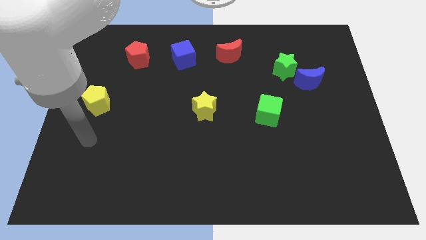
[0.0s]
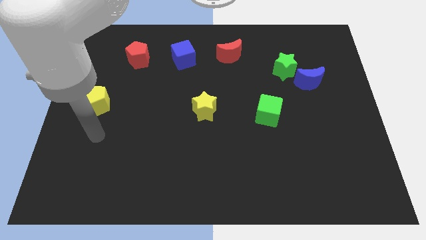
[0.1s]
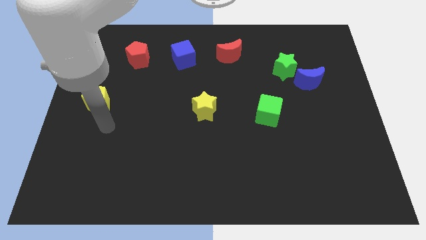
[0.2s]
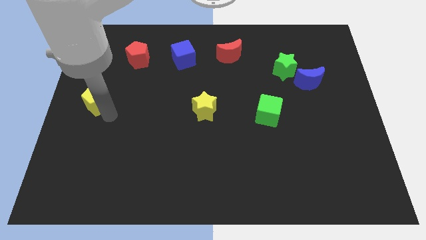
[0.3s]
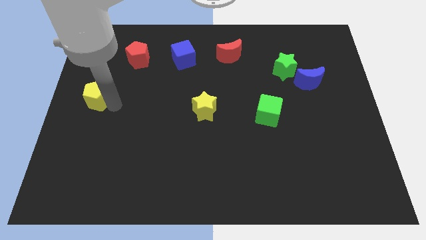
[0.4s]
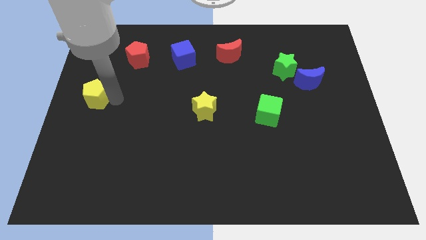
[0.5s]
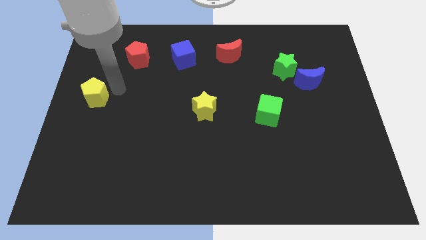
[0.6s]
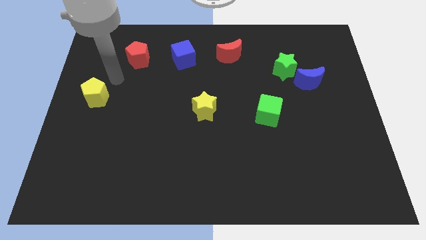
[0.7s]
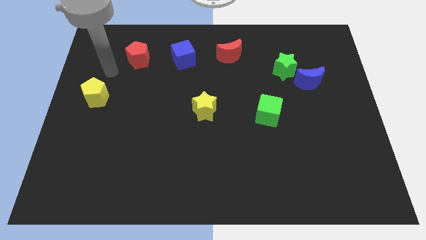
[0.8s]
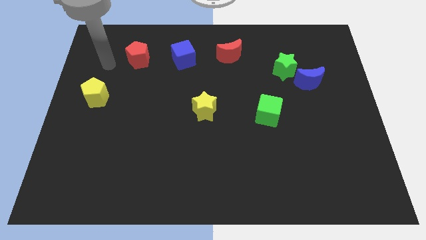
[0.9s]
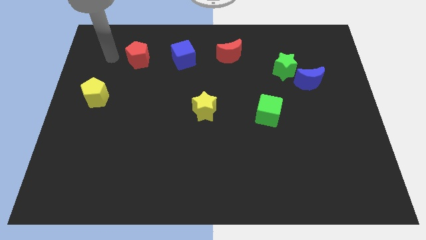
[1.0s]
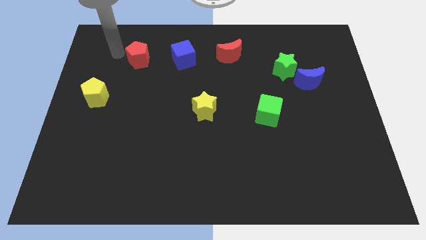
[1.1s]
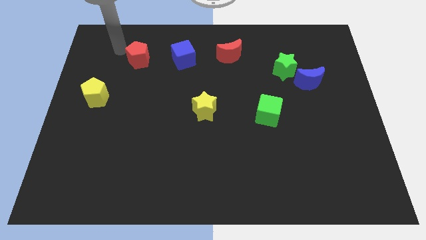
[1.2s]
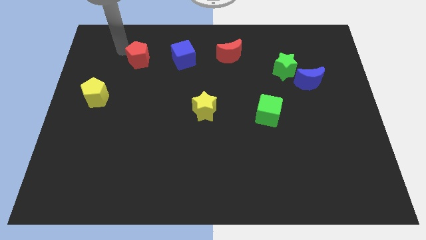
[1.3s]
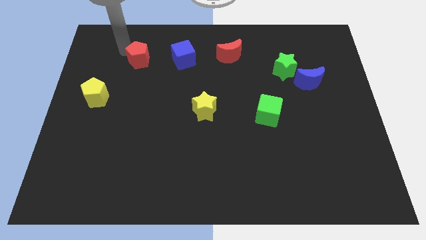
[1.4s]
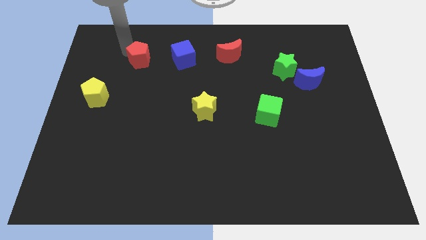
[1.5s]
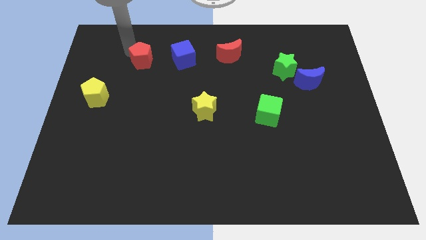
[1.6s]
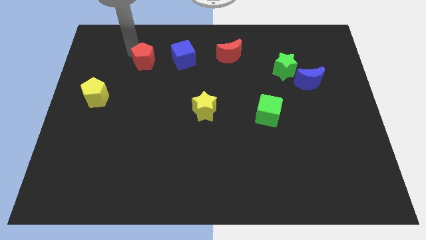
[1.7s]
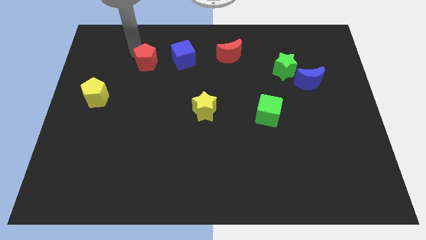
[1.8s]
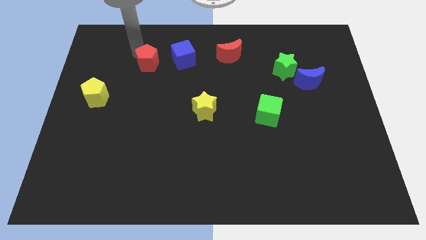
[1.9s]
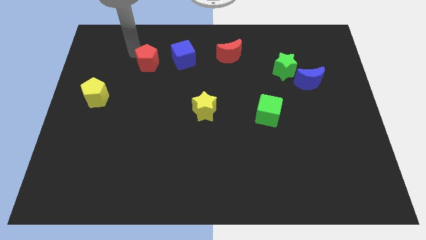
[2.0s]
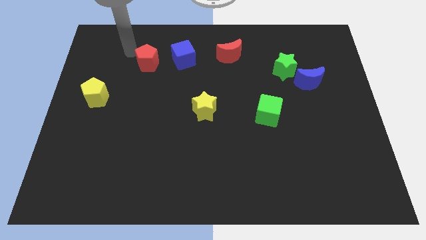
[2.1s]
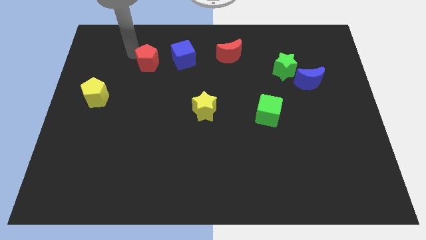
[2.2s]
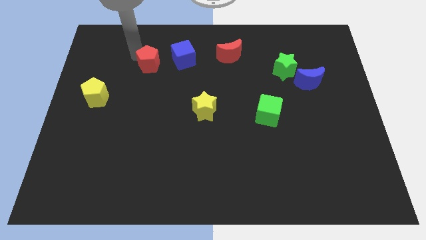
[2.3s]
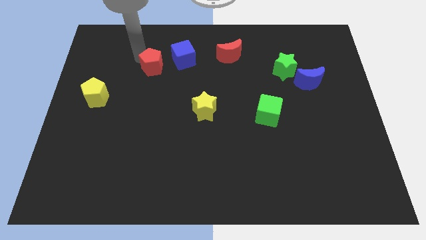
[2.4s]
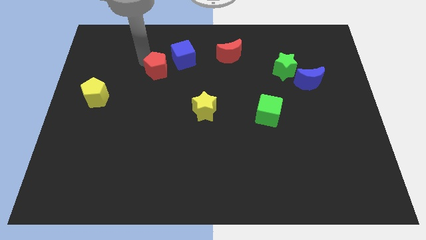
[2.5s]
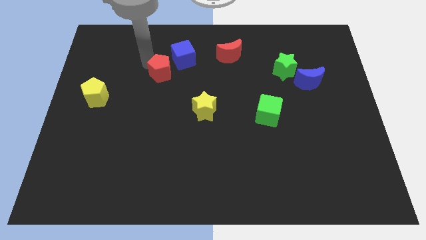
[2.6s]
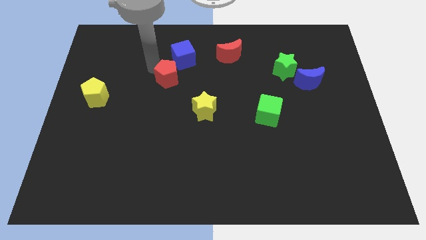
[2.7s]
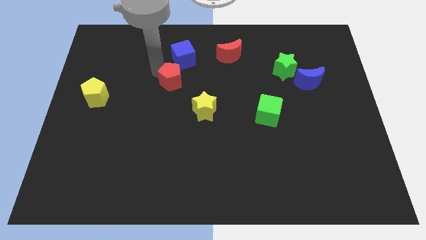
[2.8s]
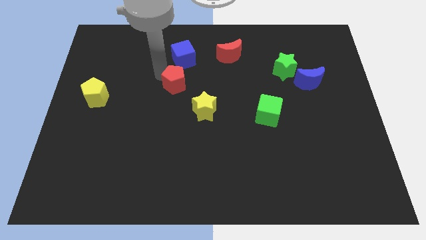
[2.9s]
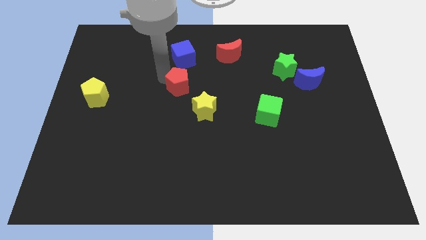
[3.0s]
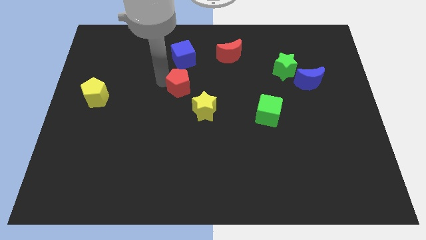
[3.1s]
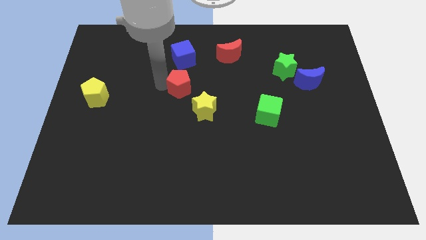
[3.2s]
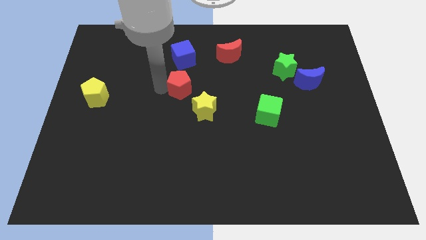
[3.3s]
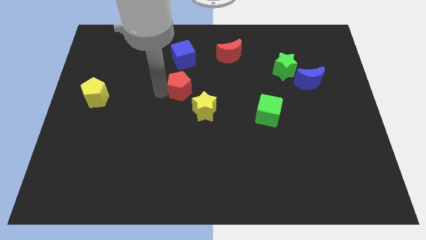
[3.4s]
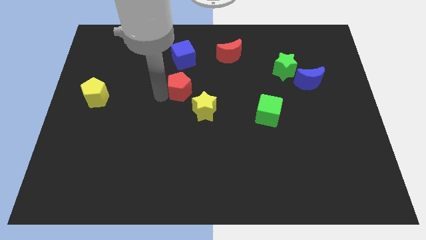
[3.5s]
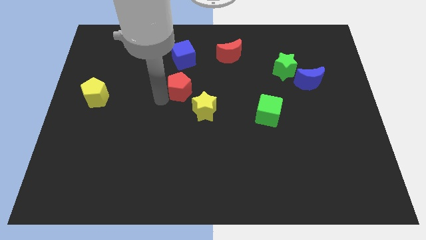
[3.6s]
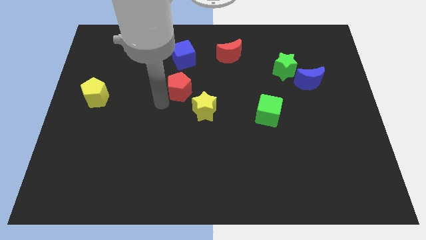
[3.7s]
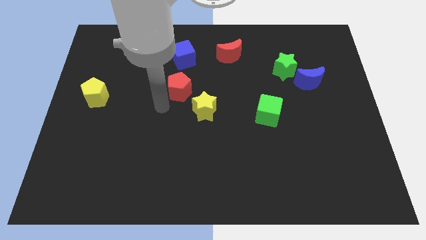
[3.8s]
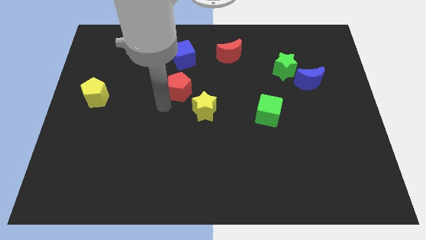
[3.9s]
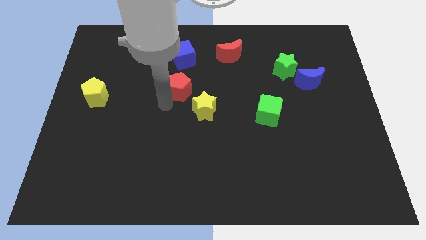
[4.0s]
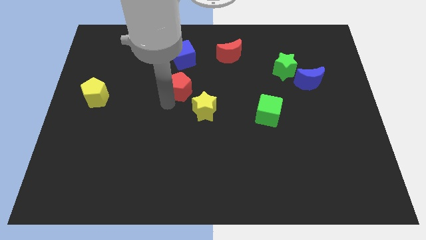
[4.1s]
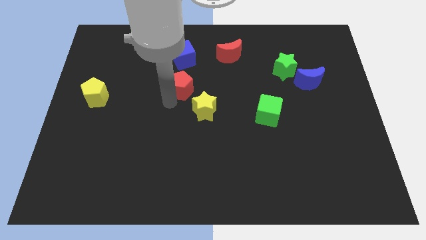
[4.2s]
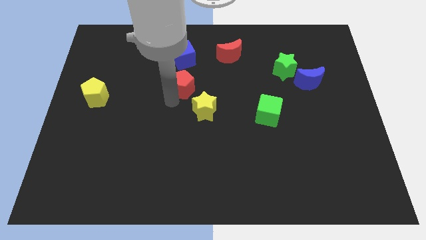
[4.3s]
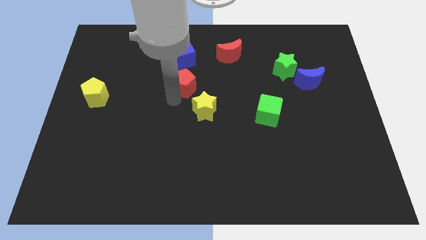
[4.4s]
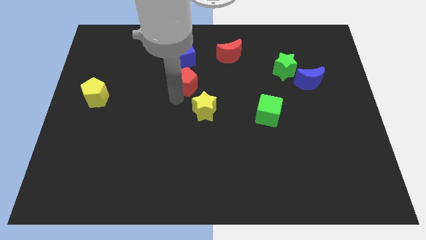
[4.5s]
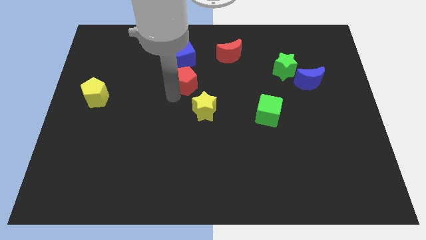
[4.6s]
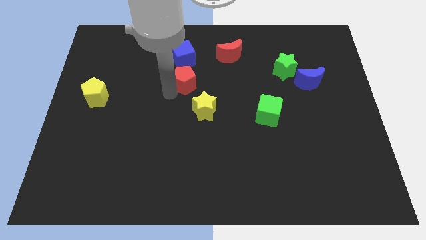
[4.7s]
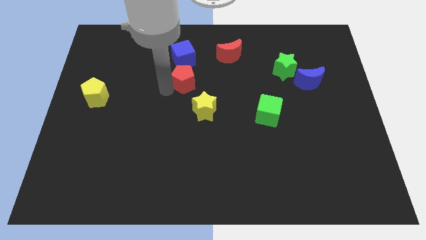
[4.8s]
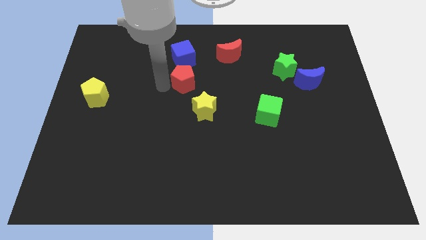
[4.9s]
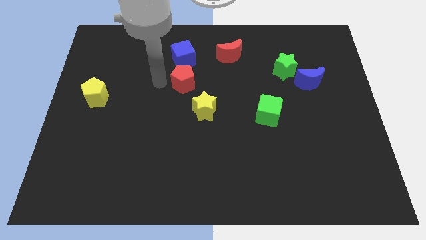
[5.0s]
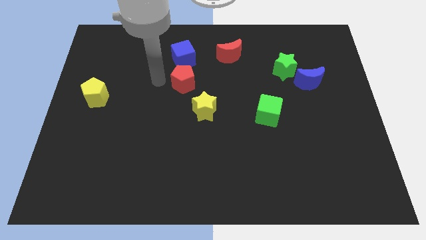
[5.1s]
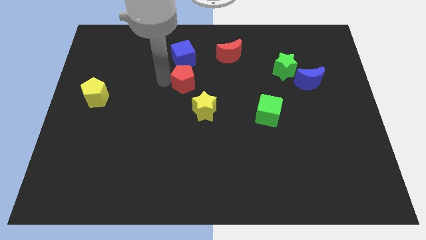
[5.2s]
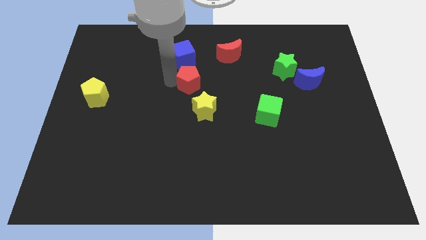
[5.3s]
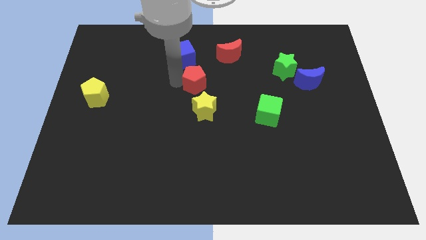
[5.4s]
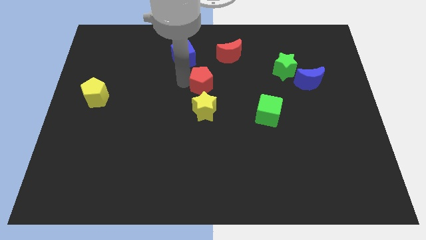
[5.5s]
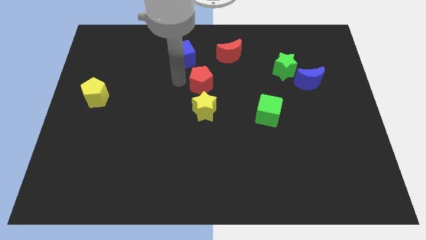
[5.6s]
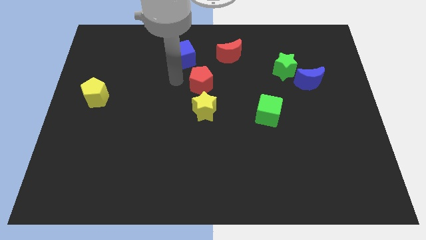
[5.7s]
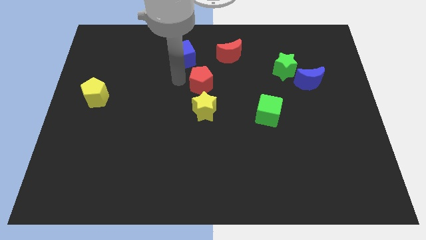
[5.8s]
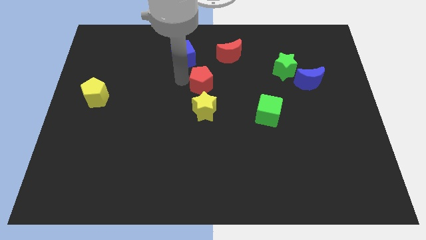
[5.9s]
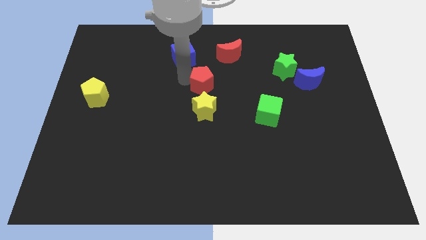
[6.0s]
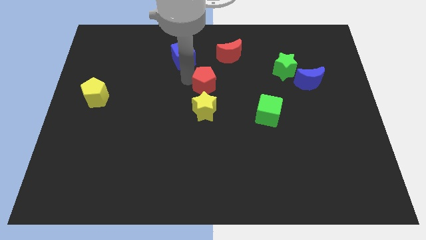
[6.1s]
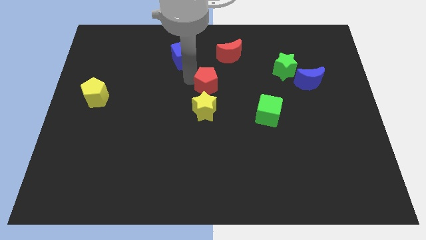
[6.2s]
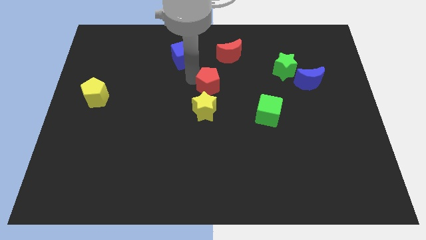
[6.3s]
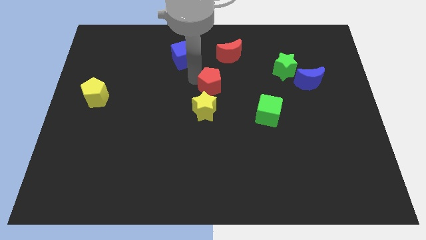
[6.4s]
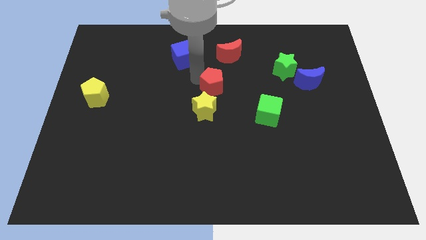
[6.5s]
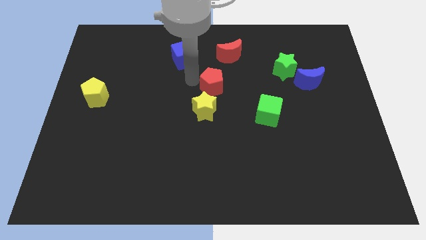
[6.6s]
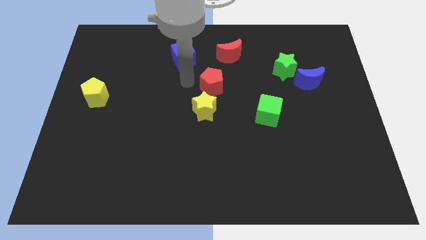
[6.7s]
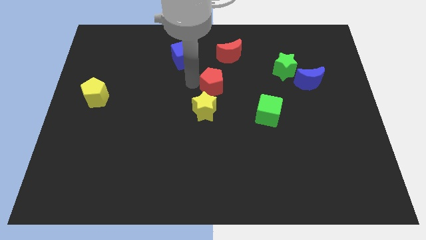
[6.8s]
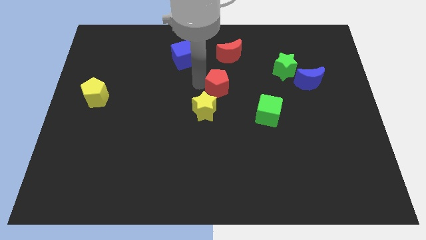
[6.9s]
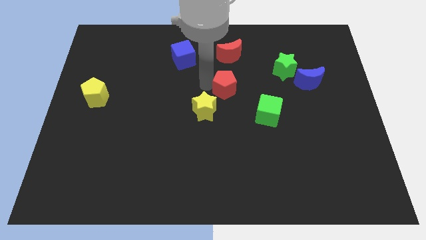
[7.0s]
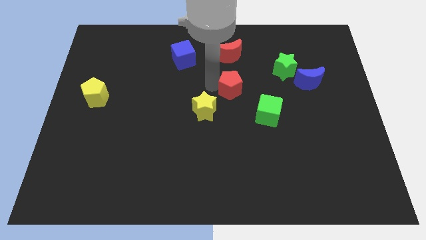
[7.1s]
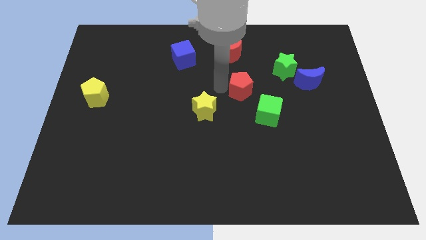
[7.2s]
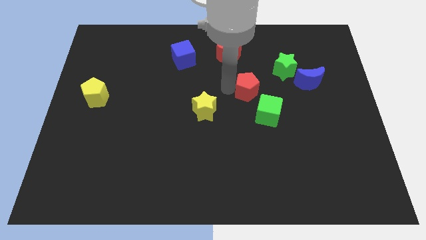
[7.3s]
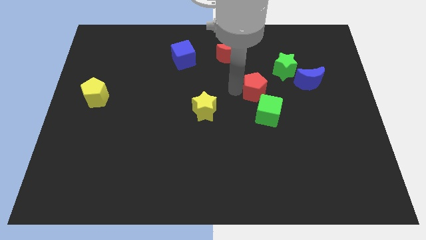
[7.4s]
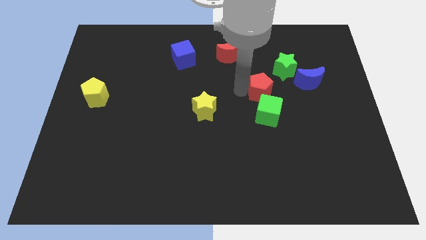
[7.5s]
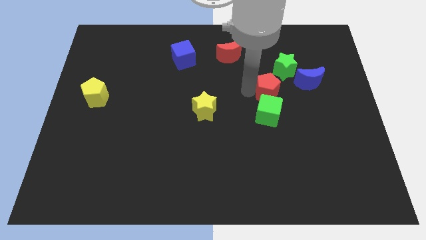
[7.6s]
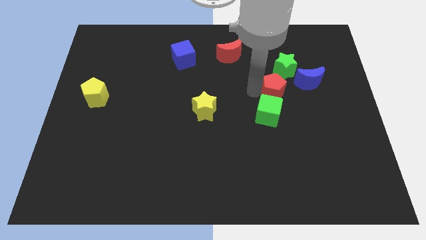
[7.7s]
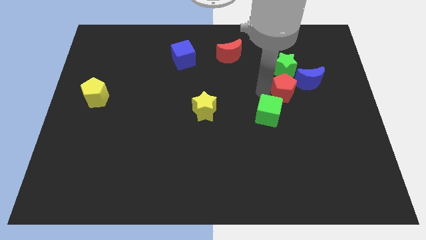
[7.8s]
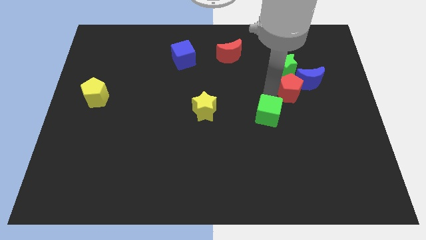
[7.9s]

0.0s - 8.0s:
slide the red pentagon next to the blue moon
